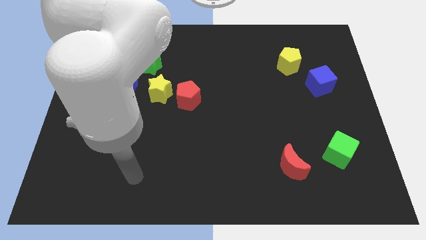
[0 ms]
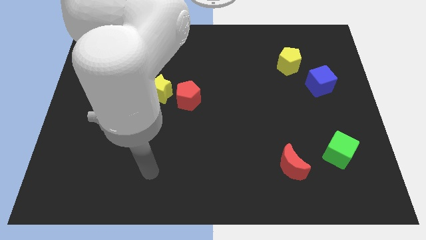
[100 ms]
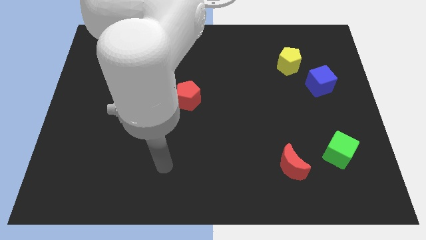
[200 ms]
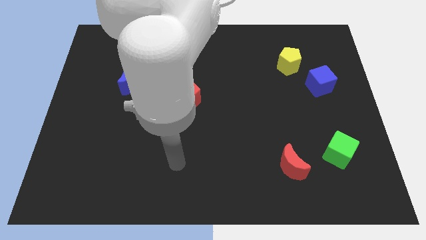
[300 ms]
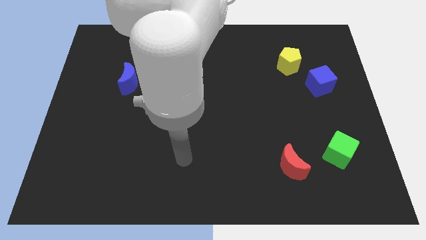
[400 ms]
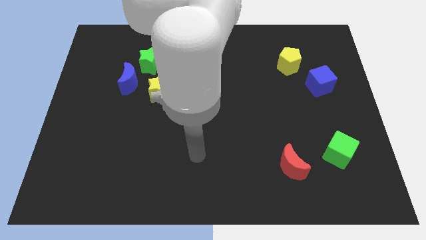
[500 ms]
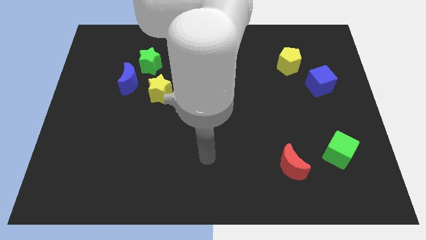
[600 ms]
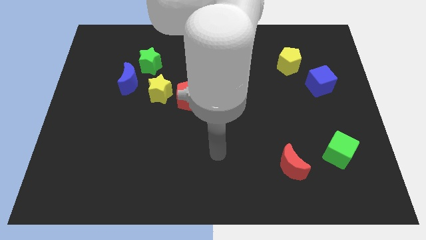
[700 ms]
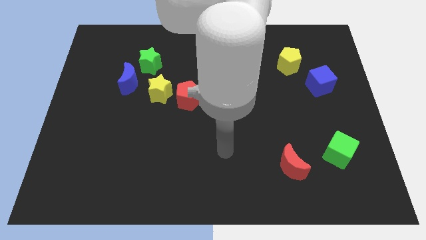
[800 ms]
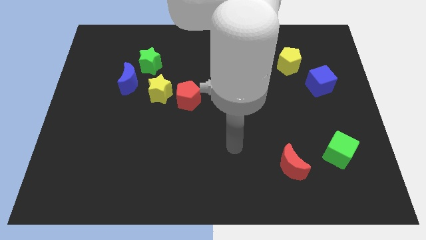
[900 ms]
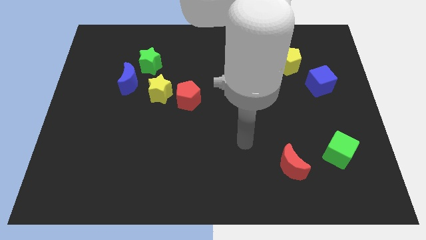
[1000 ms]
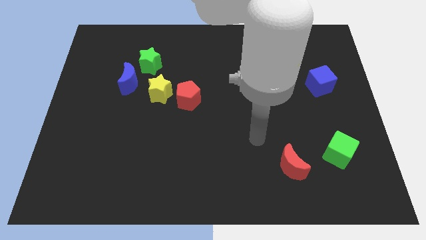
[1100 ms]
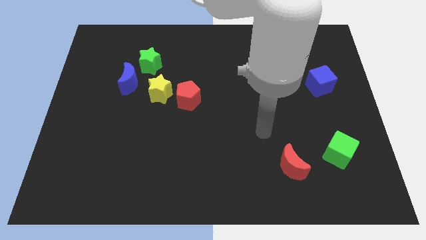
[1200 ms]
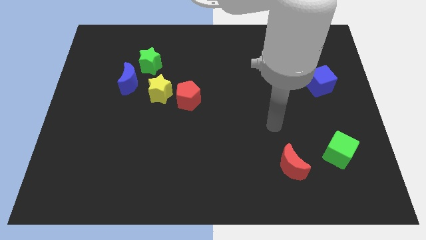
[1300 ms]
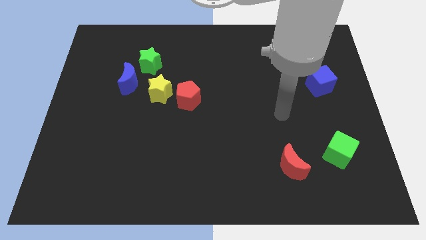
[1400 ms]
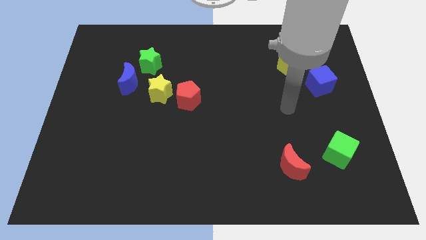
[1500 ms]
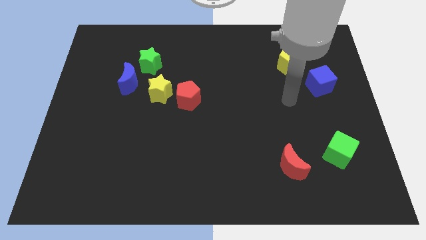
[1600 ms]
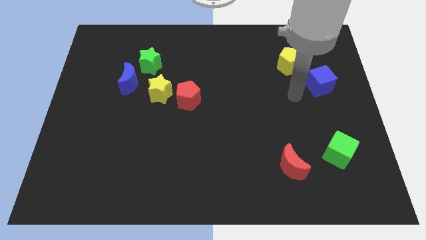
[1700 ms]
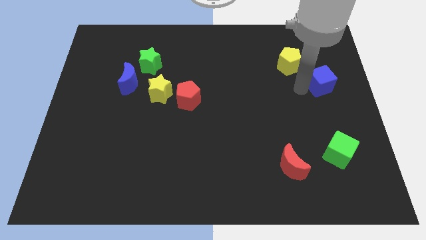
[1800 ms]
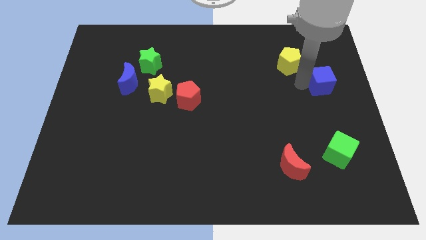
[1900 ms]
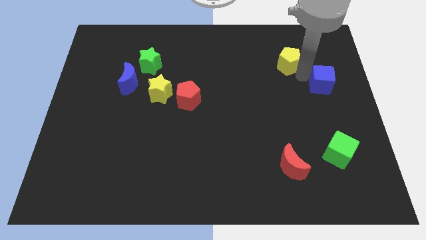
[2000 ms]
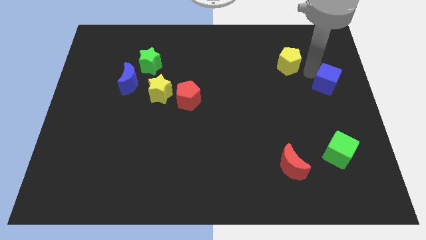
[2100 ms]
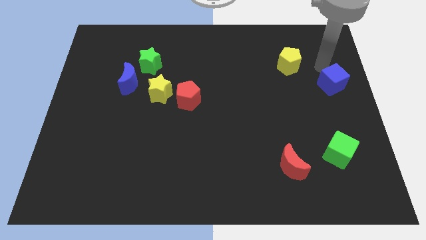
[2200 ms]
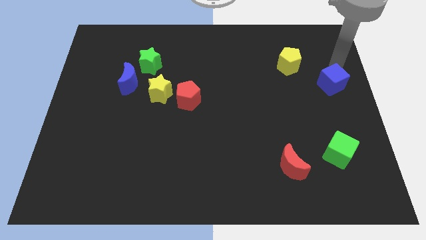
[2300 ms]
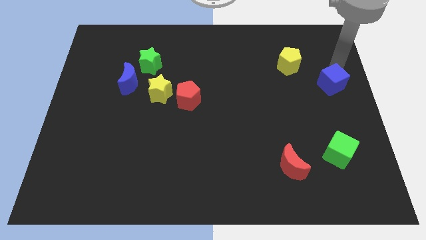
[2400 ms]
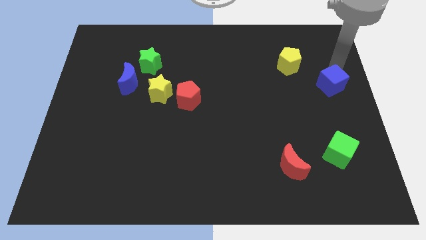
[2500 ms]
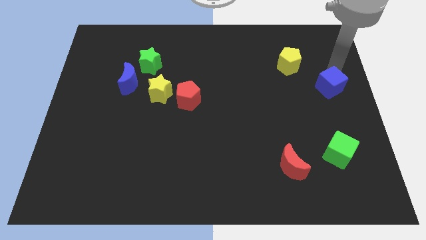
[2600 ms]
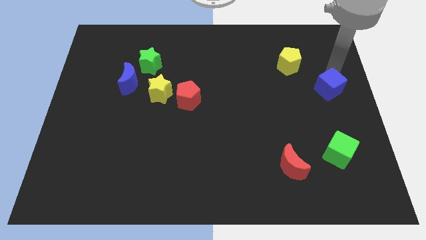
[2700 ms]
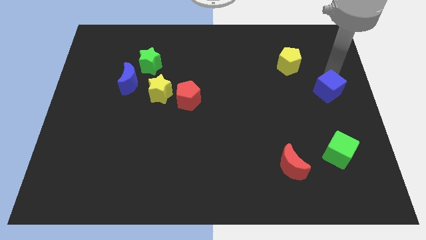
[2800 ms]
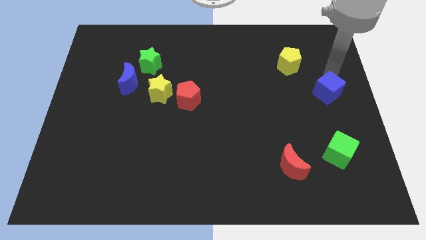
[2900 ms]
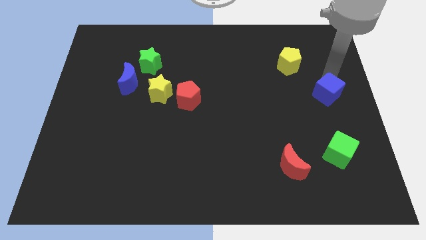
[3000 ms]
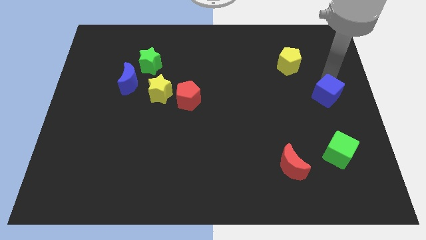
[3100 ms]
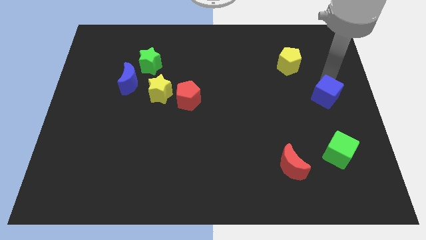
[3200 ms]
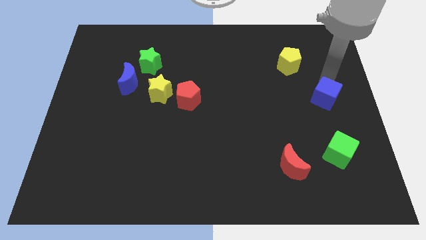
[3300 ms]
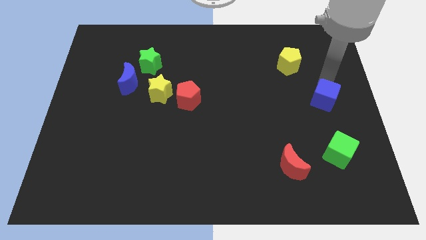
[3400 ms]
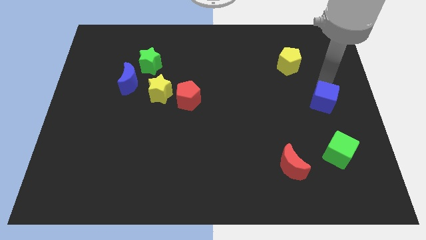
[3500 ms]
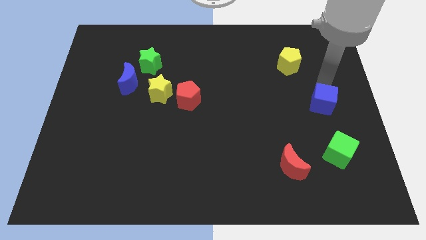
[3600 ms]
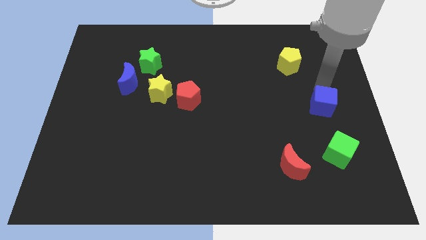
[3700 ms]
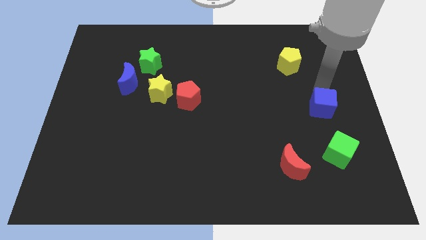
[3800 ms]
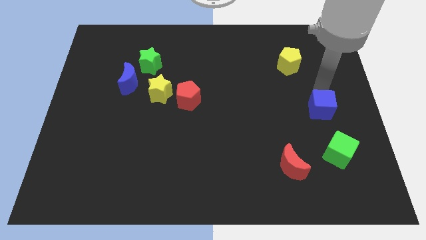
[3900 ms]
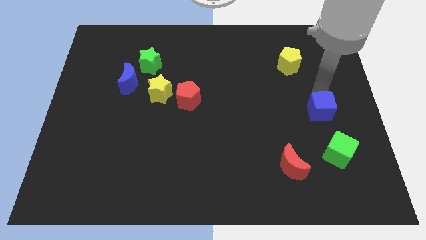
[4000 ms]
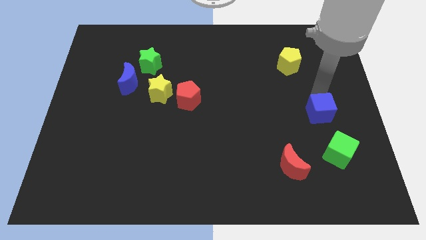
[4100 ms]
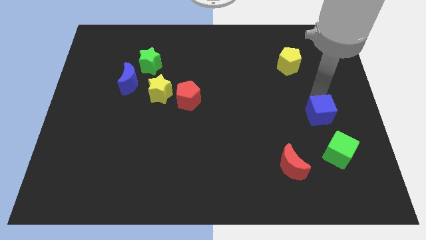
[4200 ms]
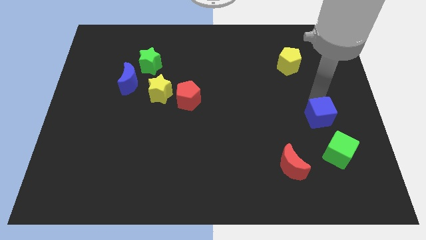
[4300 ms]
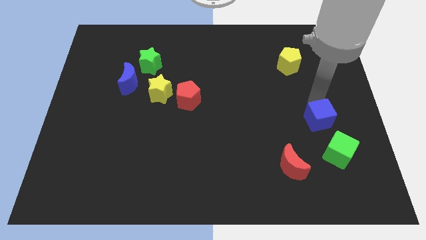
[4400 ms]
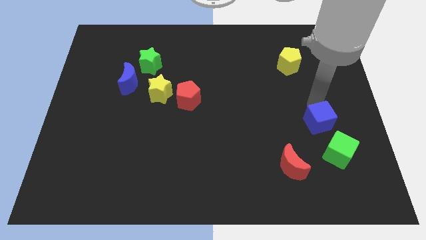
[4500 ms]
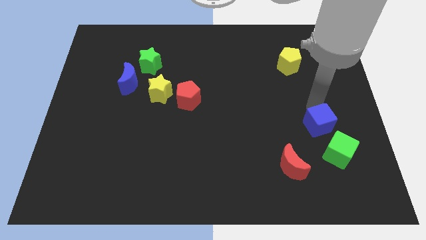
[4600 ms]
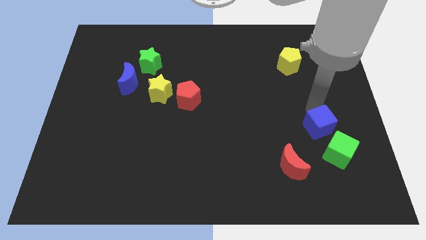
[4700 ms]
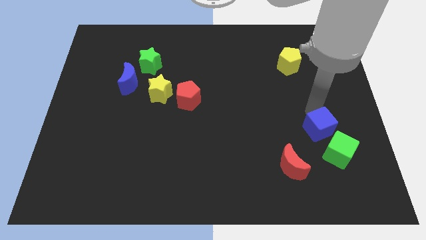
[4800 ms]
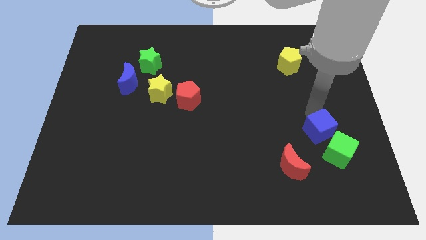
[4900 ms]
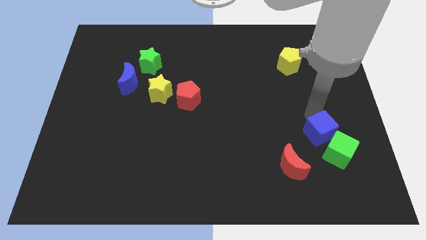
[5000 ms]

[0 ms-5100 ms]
push the blue cube close to the green cube

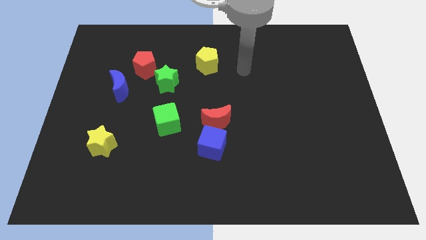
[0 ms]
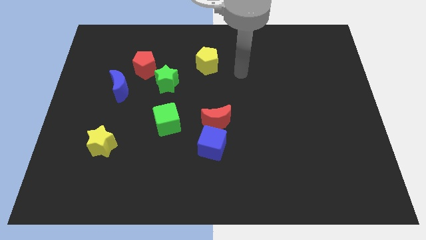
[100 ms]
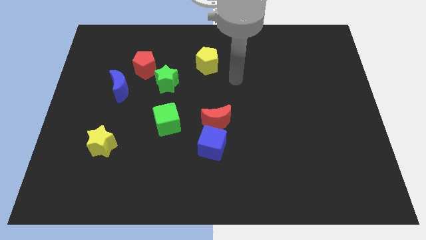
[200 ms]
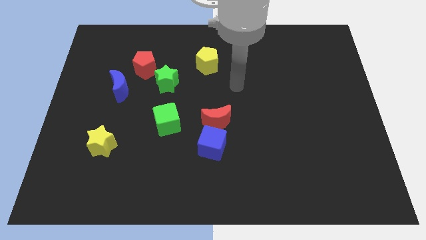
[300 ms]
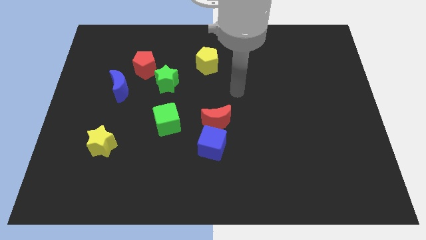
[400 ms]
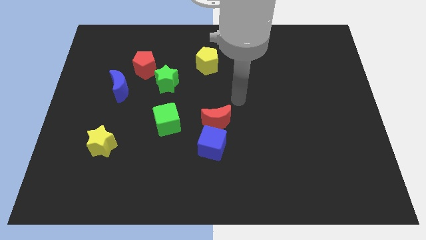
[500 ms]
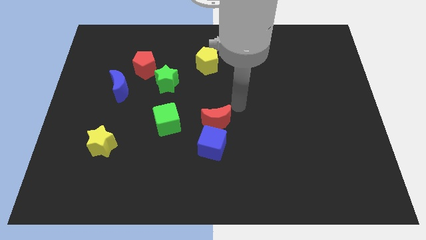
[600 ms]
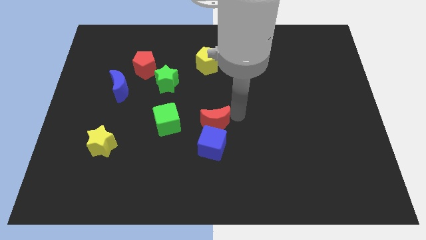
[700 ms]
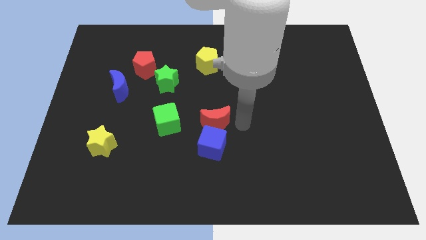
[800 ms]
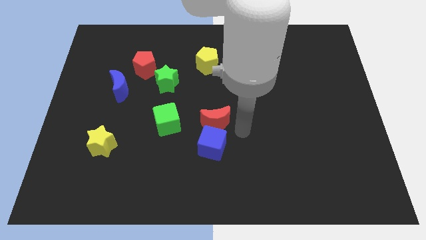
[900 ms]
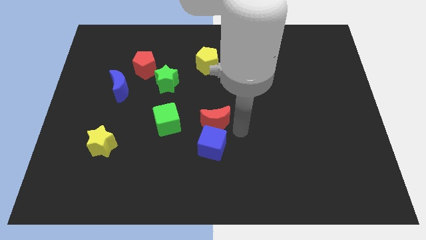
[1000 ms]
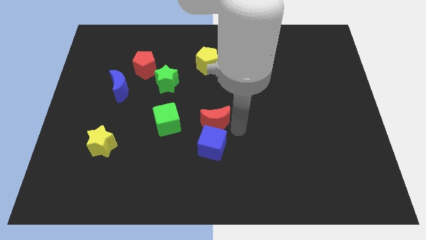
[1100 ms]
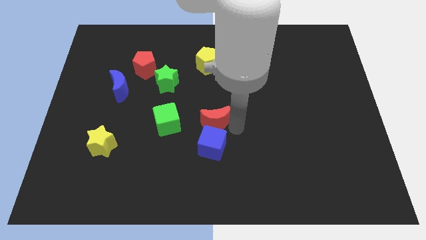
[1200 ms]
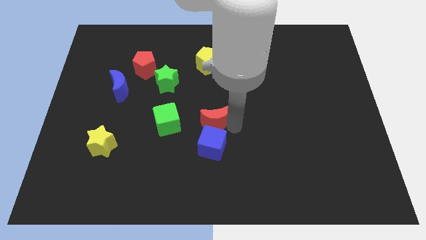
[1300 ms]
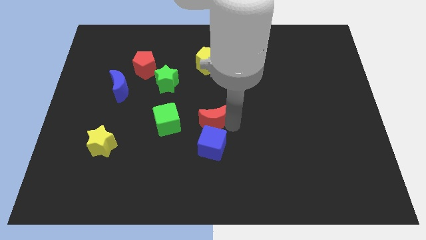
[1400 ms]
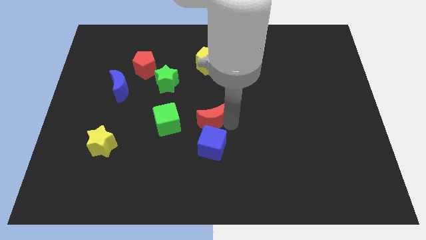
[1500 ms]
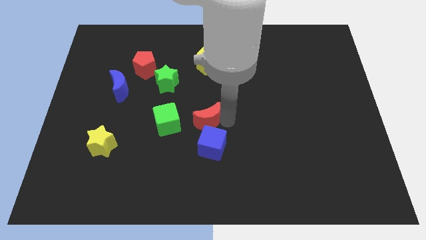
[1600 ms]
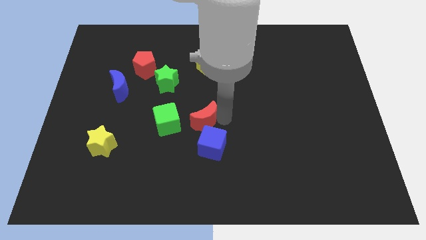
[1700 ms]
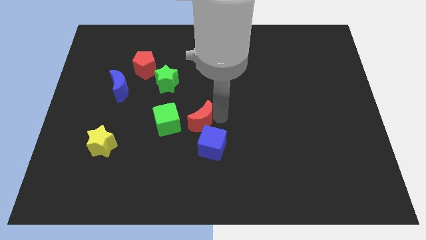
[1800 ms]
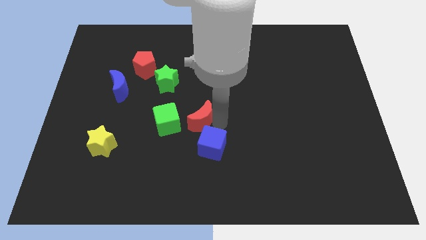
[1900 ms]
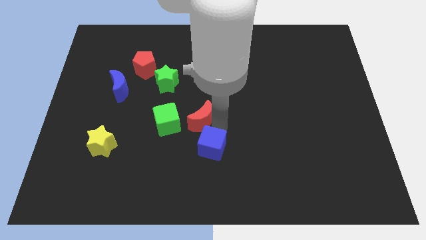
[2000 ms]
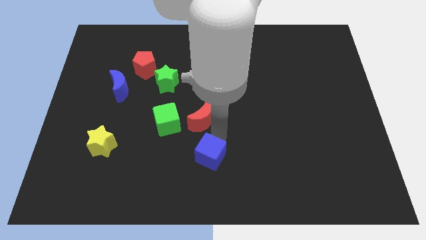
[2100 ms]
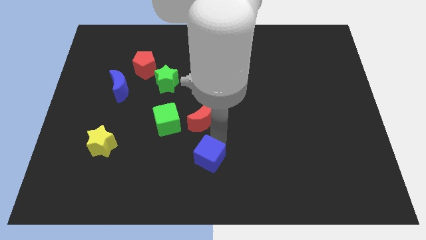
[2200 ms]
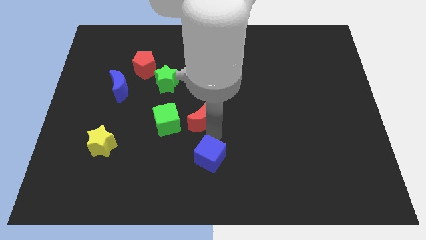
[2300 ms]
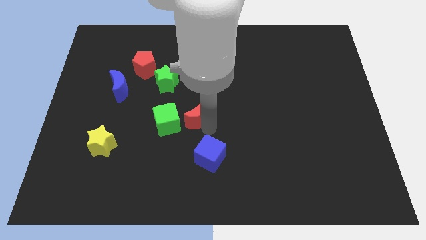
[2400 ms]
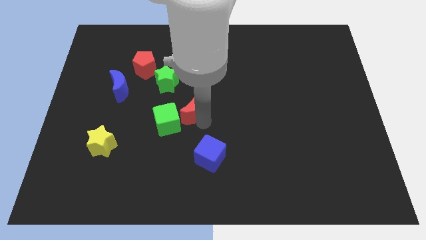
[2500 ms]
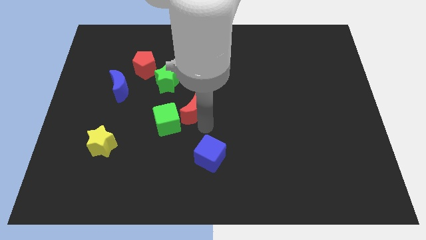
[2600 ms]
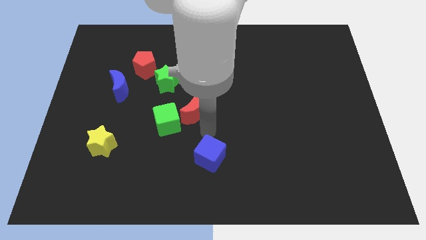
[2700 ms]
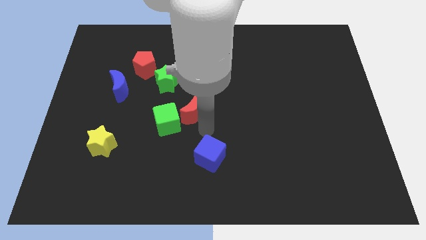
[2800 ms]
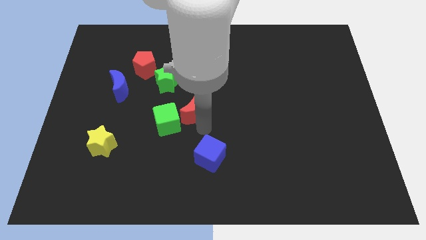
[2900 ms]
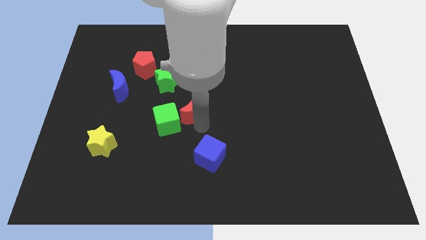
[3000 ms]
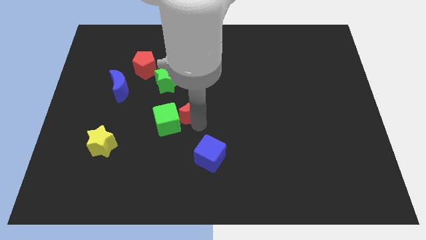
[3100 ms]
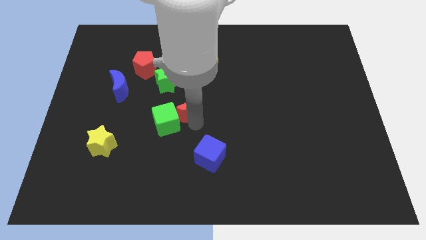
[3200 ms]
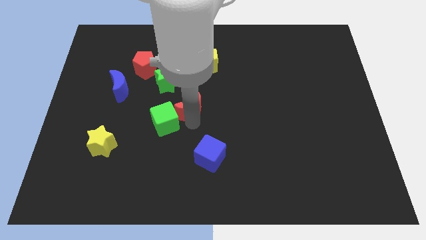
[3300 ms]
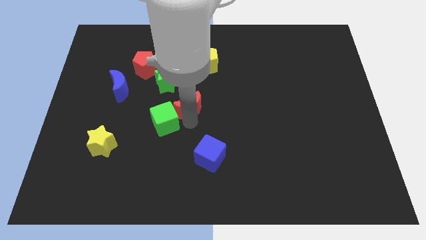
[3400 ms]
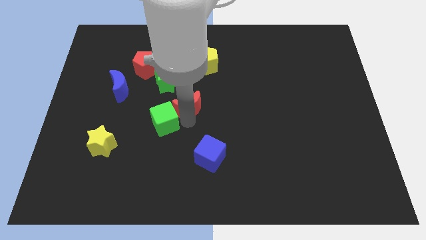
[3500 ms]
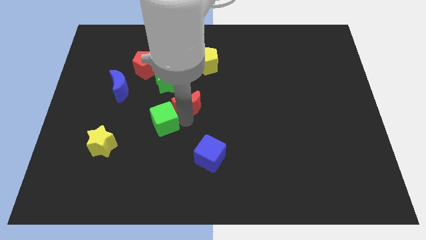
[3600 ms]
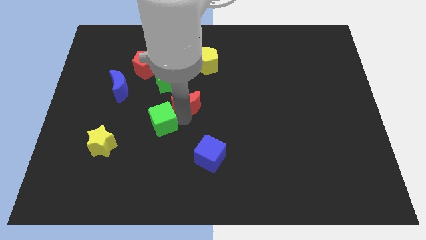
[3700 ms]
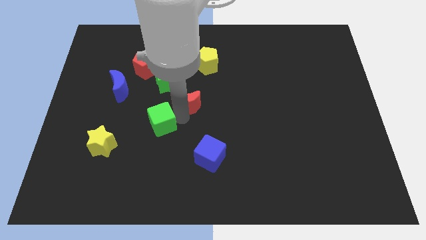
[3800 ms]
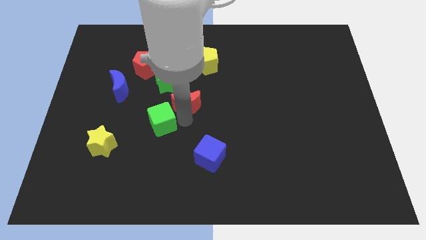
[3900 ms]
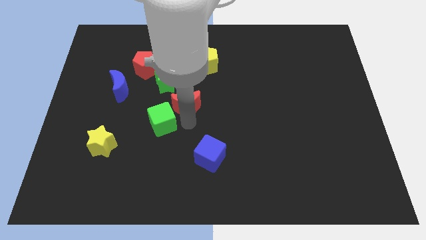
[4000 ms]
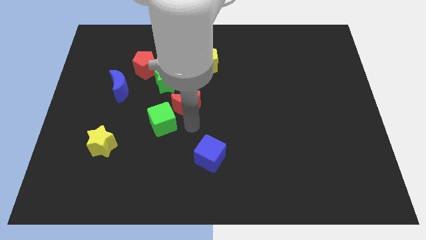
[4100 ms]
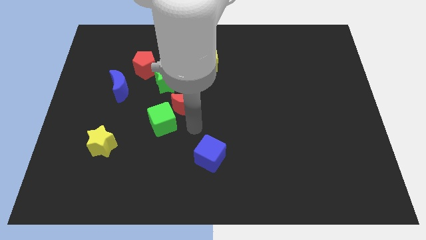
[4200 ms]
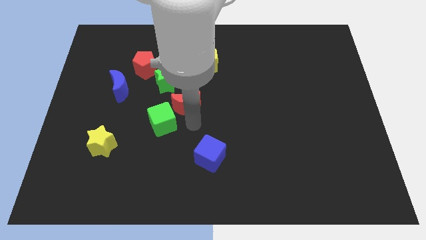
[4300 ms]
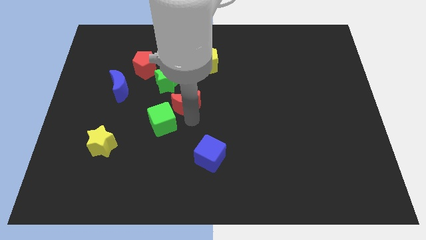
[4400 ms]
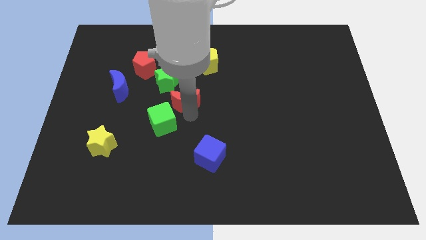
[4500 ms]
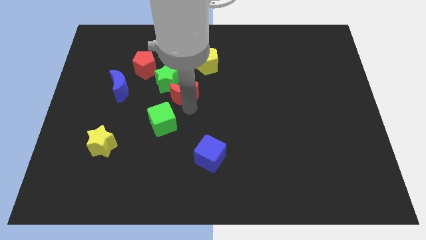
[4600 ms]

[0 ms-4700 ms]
move the red moon to the green star
